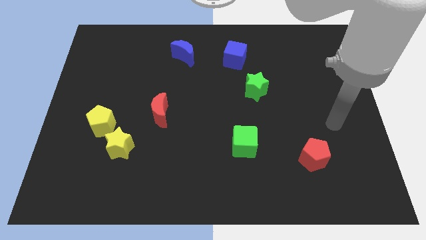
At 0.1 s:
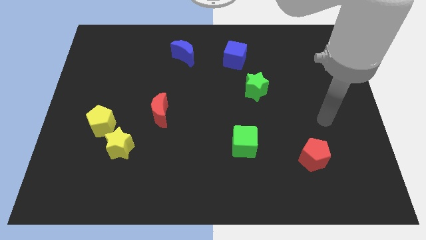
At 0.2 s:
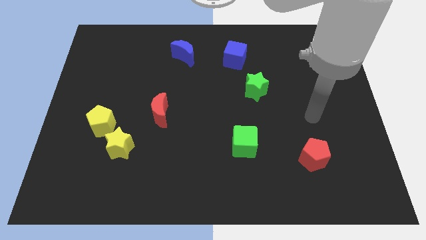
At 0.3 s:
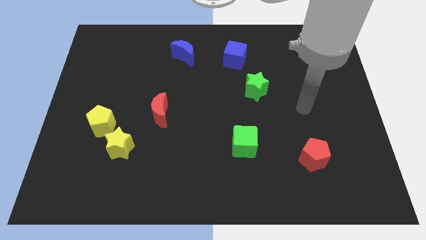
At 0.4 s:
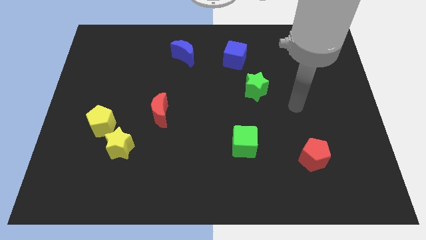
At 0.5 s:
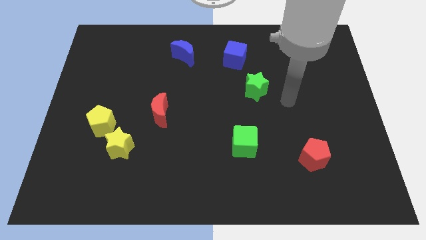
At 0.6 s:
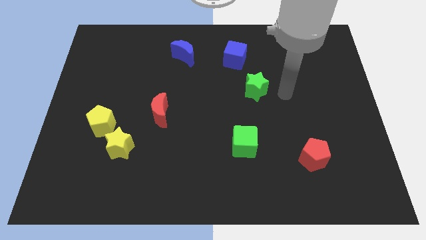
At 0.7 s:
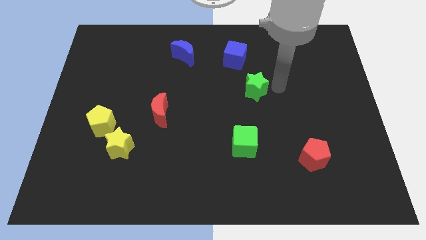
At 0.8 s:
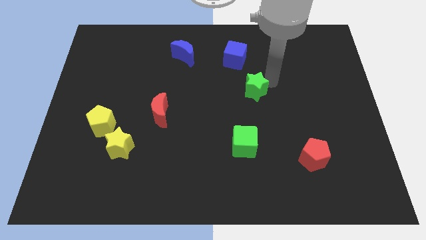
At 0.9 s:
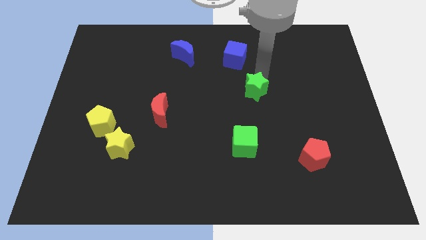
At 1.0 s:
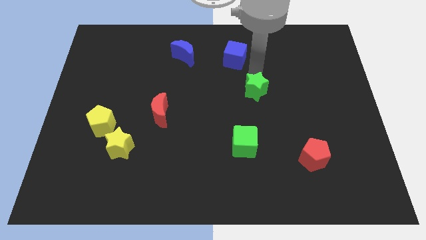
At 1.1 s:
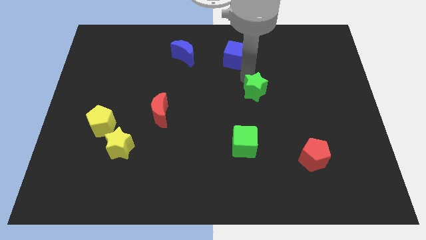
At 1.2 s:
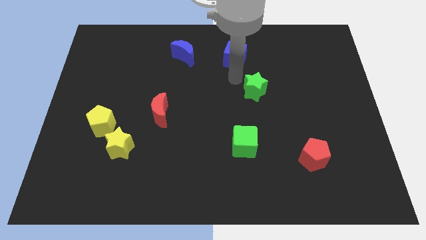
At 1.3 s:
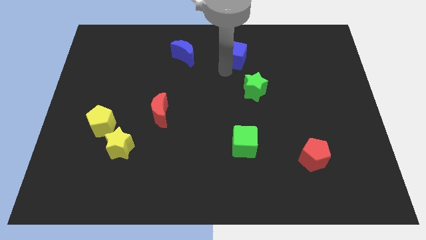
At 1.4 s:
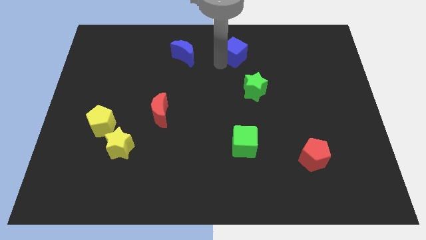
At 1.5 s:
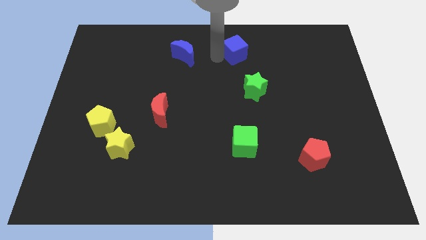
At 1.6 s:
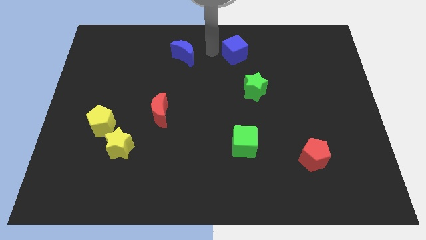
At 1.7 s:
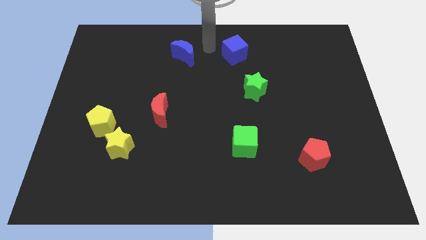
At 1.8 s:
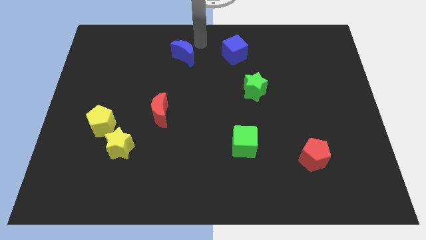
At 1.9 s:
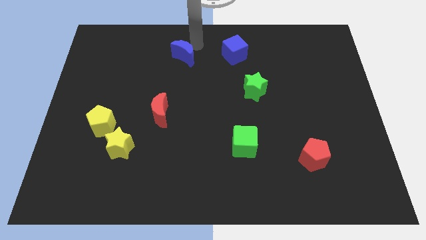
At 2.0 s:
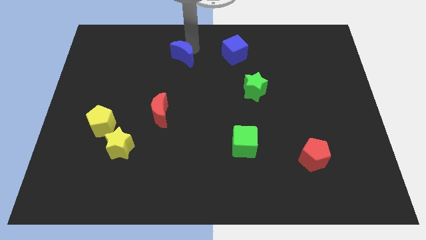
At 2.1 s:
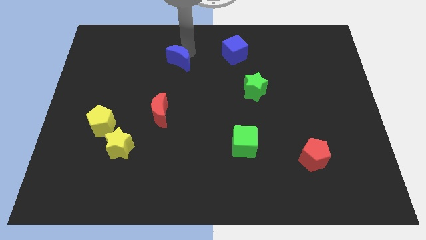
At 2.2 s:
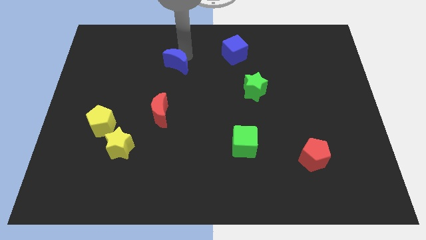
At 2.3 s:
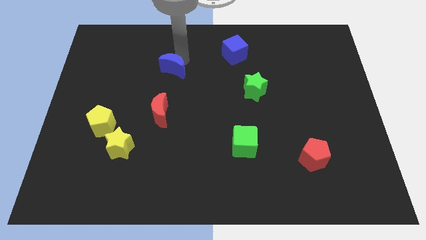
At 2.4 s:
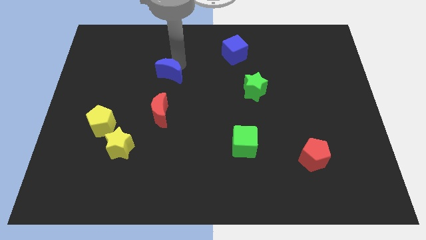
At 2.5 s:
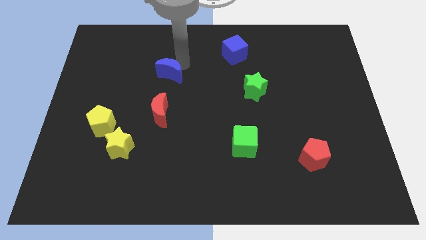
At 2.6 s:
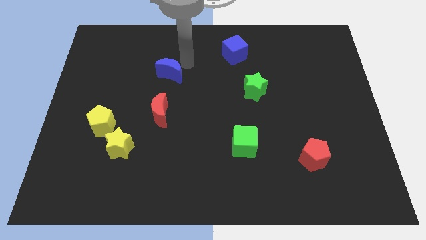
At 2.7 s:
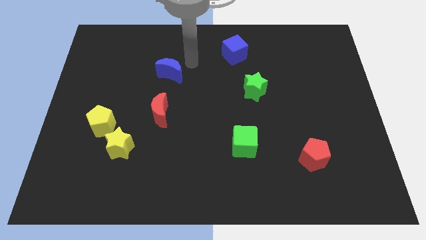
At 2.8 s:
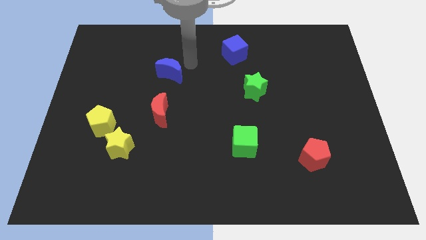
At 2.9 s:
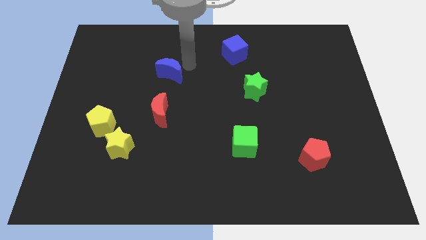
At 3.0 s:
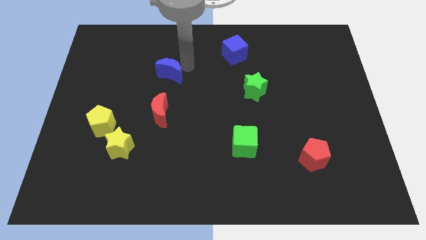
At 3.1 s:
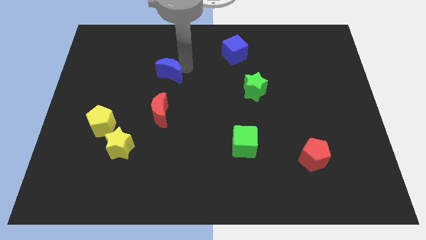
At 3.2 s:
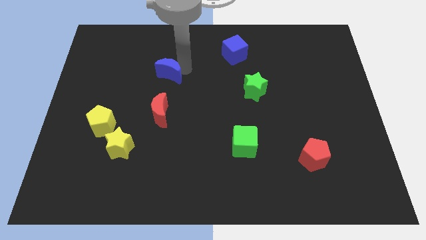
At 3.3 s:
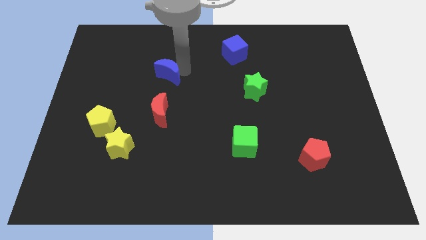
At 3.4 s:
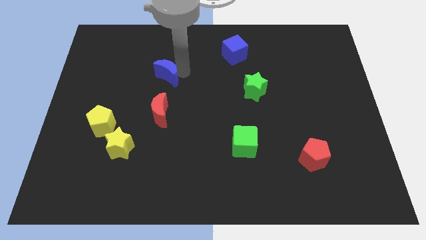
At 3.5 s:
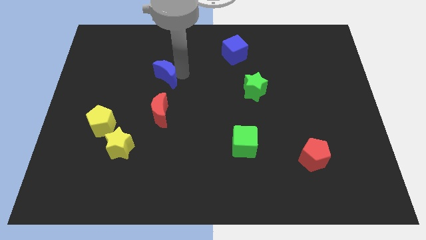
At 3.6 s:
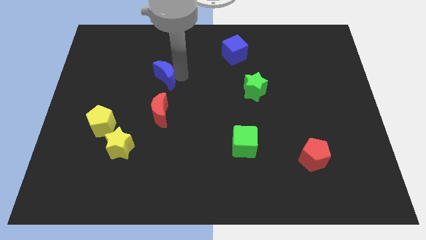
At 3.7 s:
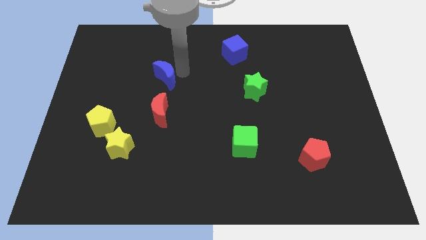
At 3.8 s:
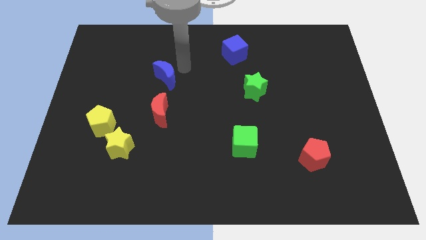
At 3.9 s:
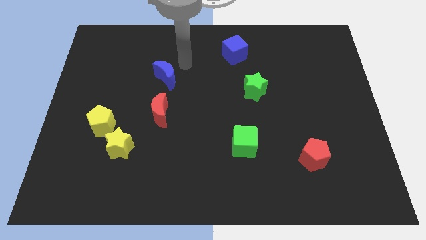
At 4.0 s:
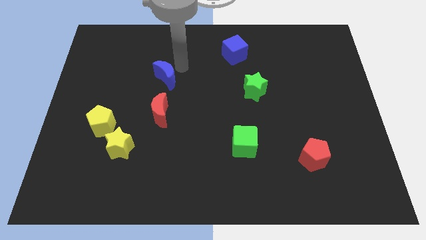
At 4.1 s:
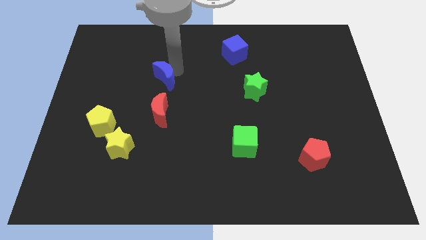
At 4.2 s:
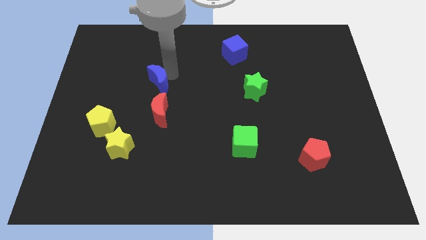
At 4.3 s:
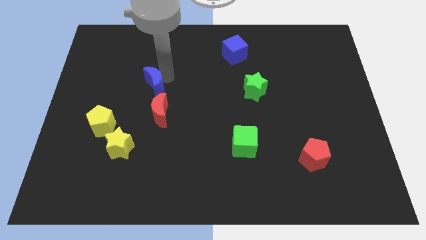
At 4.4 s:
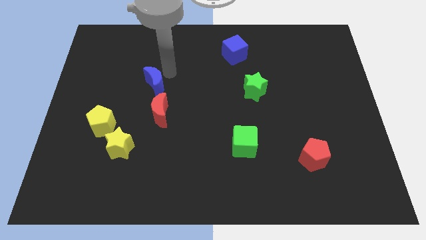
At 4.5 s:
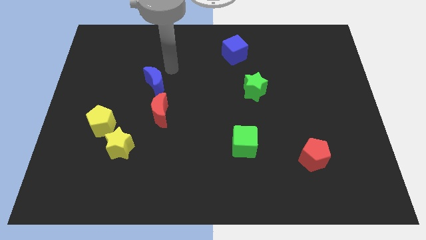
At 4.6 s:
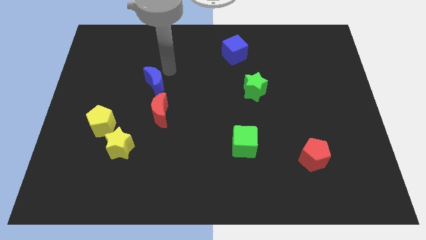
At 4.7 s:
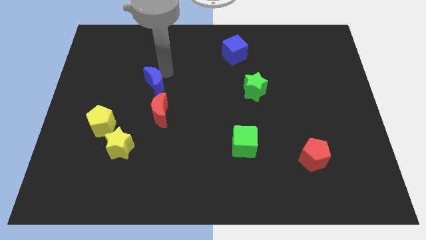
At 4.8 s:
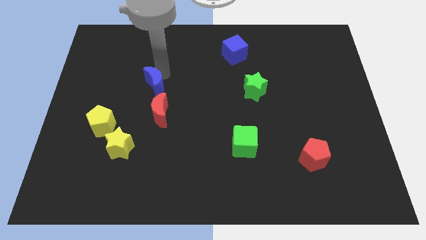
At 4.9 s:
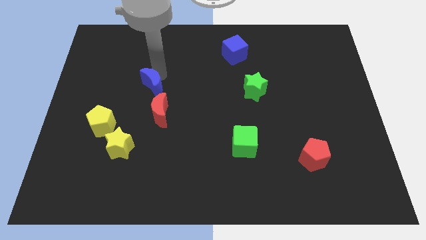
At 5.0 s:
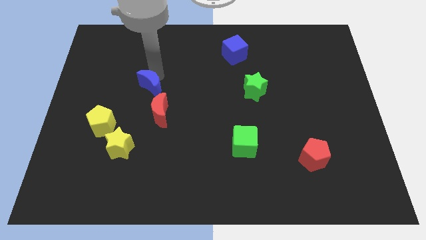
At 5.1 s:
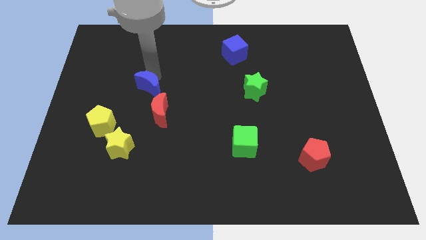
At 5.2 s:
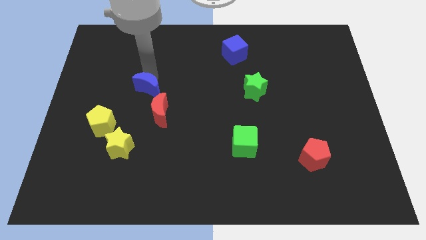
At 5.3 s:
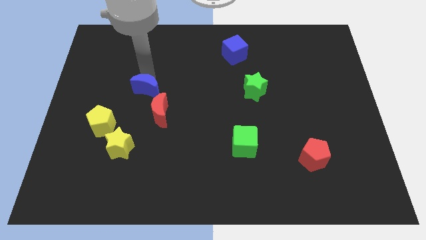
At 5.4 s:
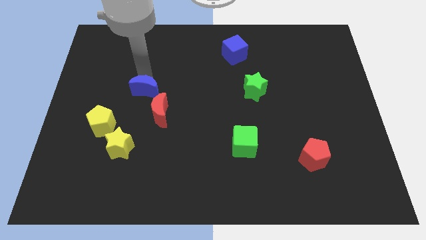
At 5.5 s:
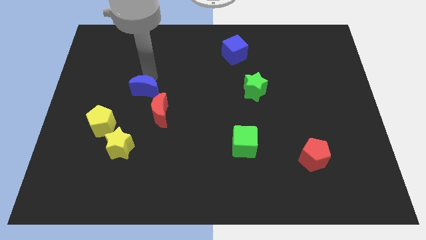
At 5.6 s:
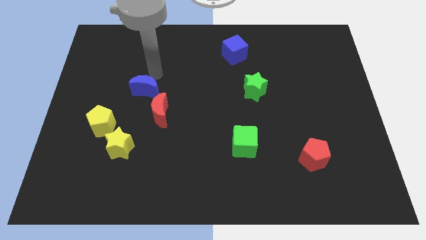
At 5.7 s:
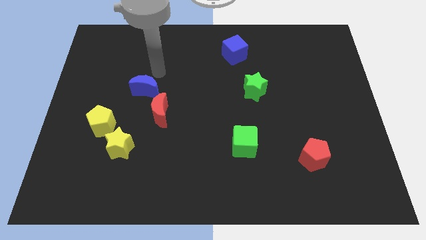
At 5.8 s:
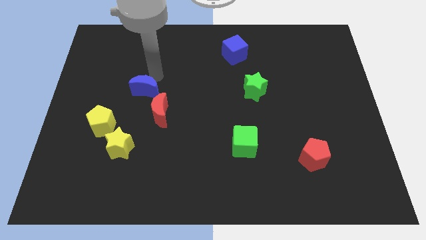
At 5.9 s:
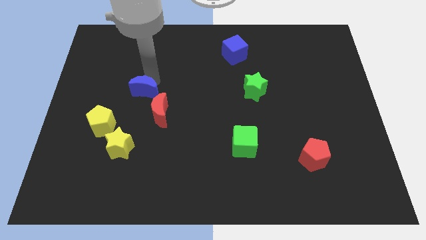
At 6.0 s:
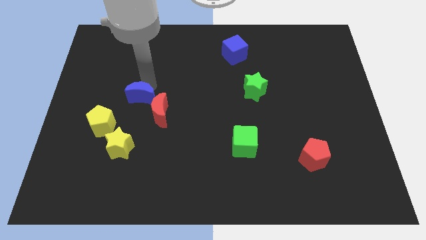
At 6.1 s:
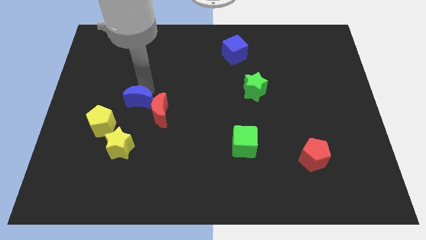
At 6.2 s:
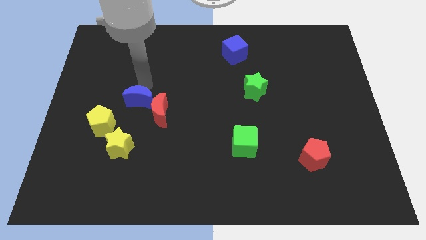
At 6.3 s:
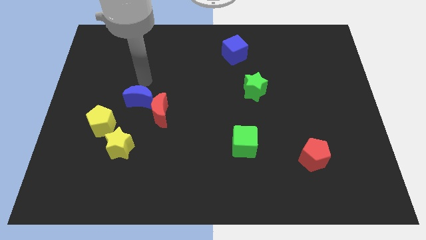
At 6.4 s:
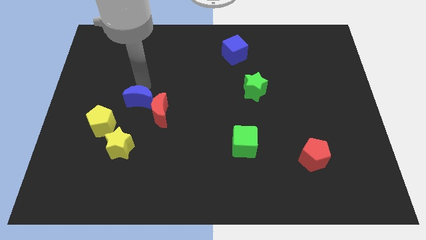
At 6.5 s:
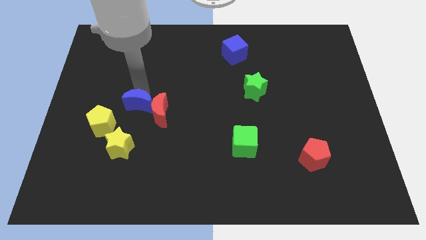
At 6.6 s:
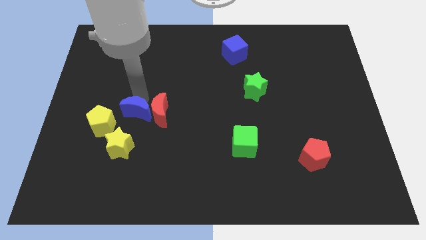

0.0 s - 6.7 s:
slide the blue moon to the bottom left side of the red moon
